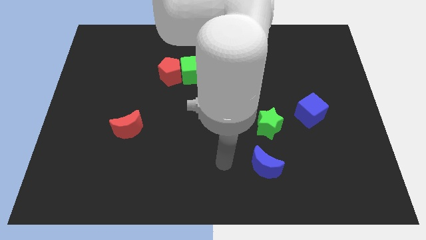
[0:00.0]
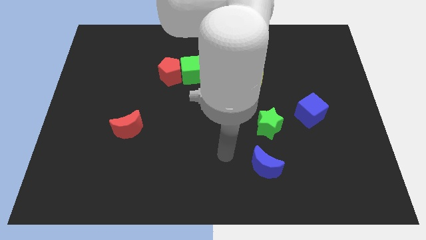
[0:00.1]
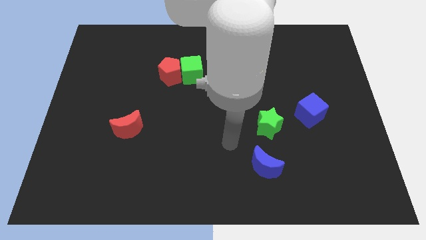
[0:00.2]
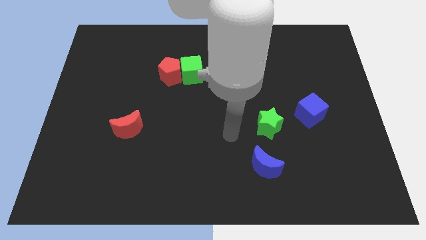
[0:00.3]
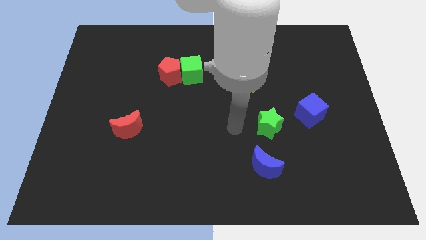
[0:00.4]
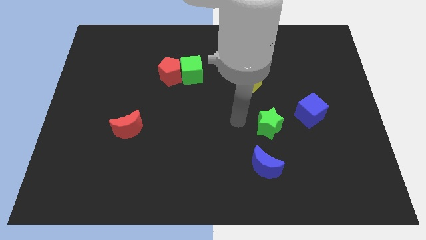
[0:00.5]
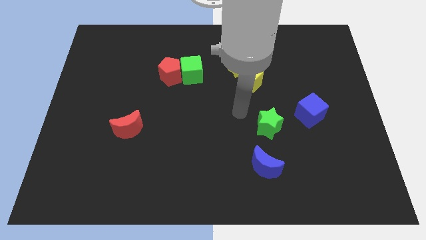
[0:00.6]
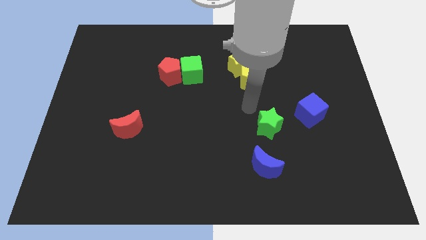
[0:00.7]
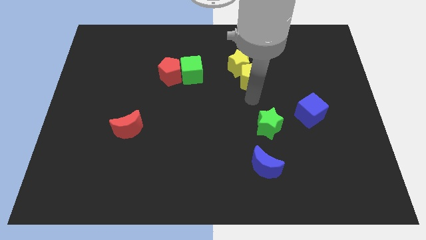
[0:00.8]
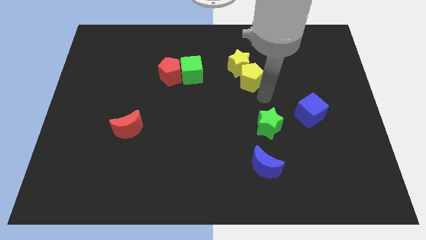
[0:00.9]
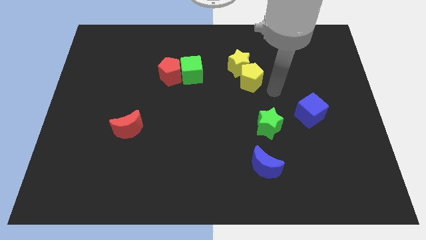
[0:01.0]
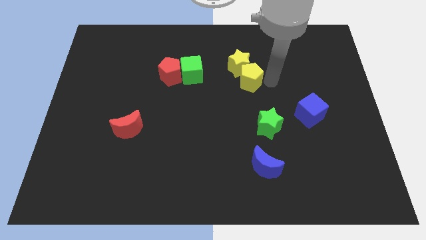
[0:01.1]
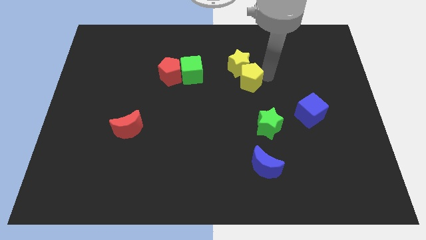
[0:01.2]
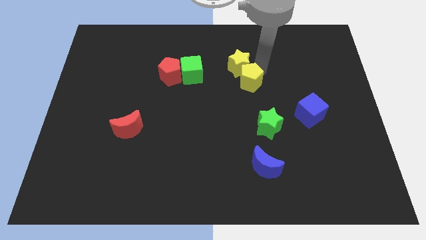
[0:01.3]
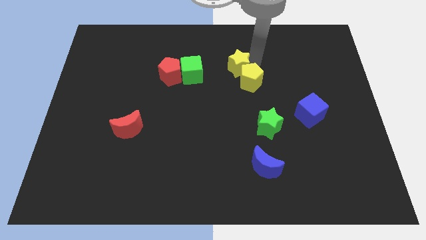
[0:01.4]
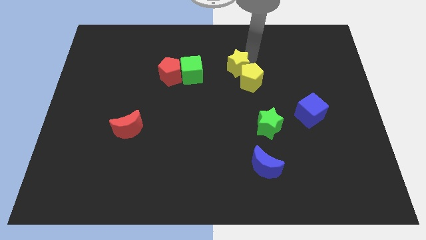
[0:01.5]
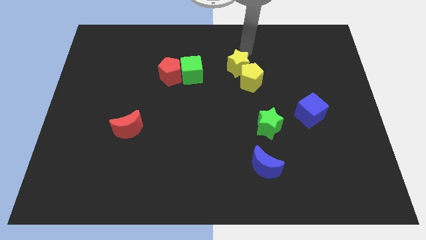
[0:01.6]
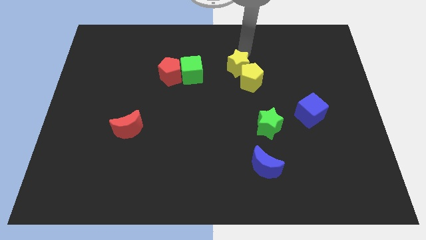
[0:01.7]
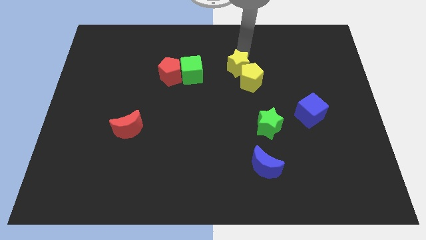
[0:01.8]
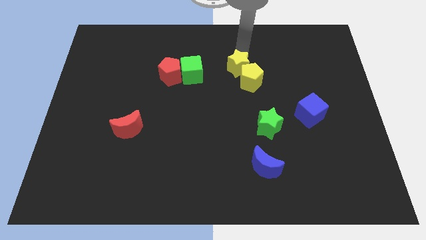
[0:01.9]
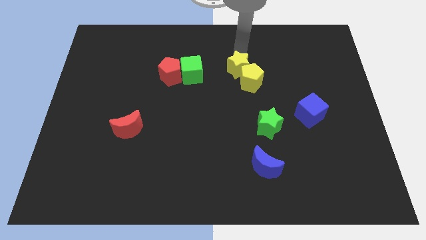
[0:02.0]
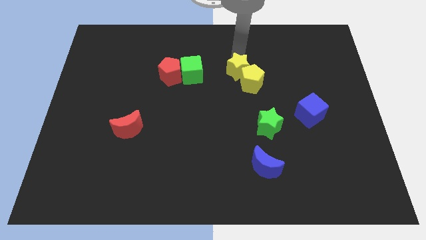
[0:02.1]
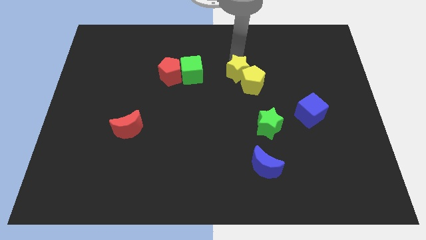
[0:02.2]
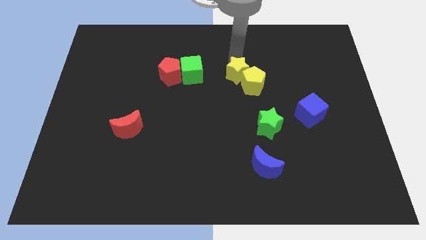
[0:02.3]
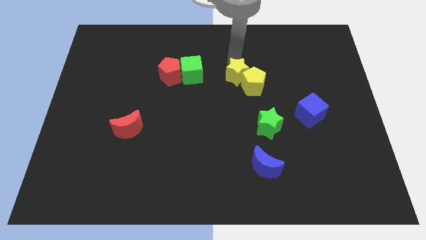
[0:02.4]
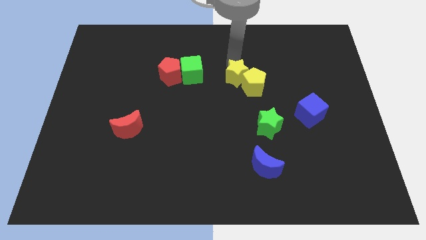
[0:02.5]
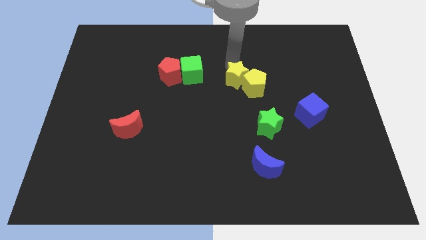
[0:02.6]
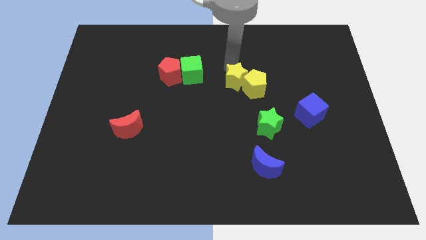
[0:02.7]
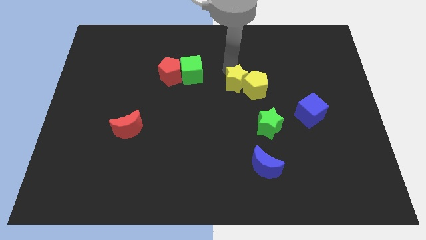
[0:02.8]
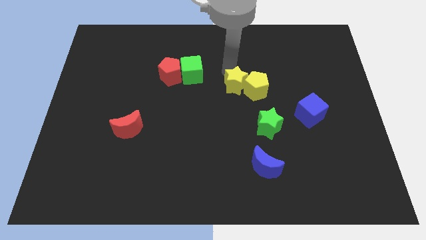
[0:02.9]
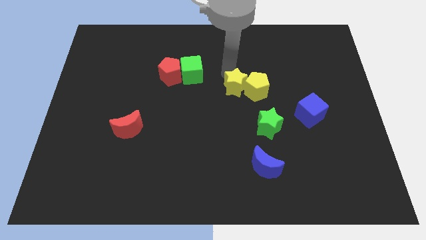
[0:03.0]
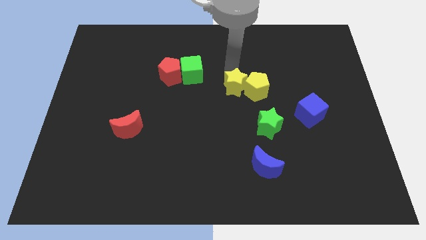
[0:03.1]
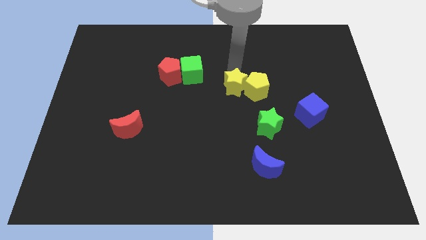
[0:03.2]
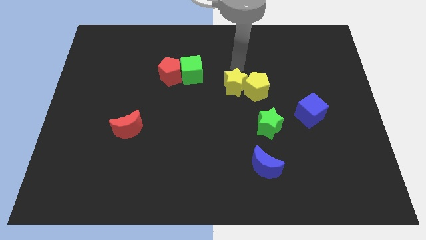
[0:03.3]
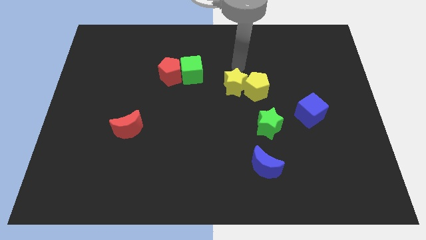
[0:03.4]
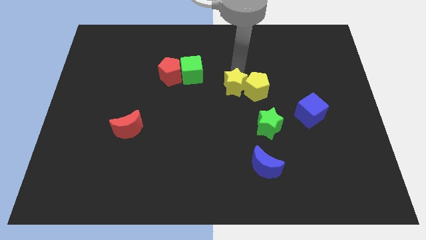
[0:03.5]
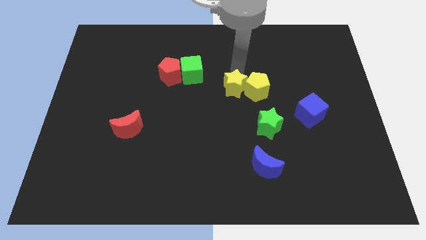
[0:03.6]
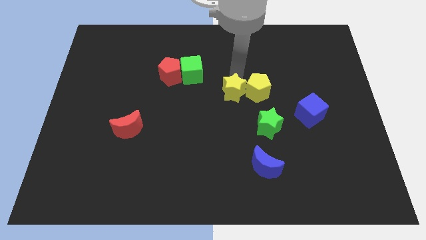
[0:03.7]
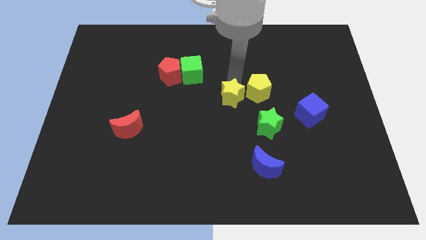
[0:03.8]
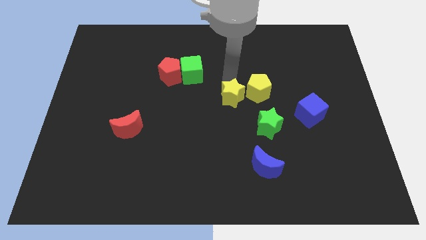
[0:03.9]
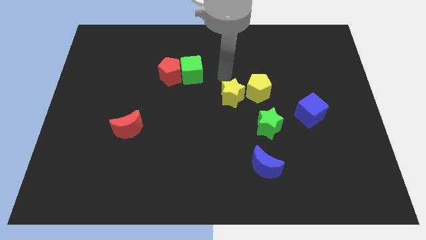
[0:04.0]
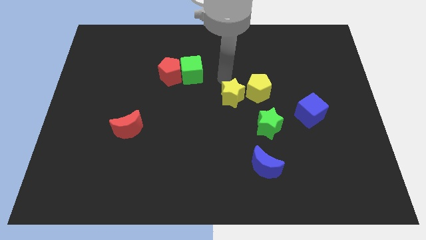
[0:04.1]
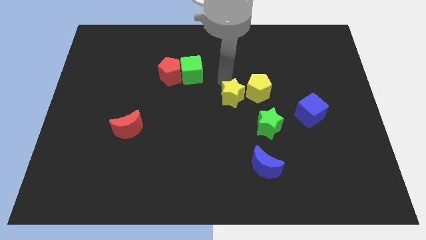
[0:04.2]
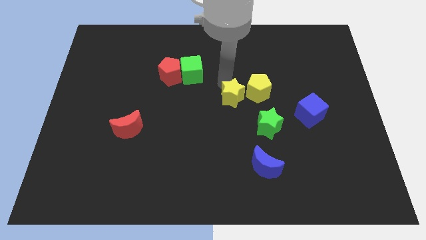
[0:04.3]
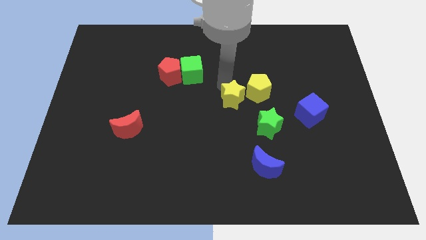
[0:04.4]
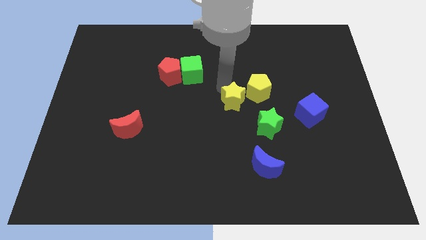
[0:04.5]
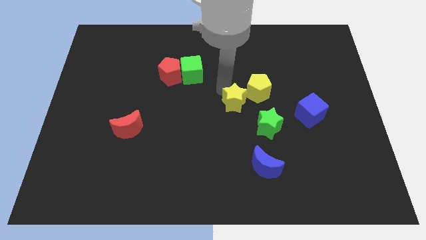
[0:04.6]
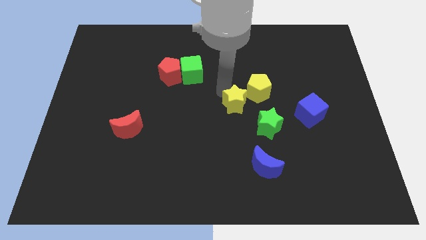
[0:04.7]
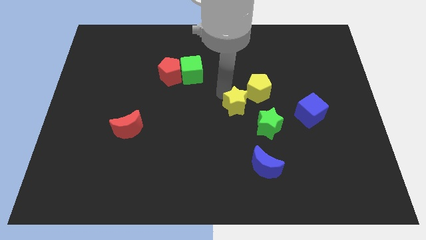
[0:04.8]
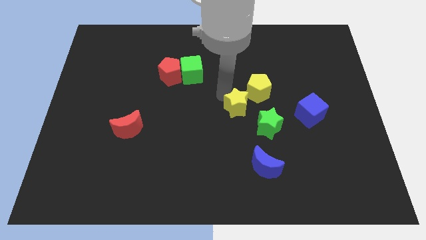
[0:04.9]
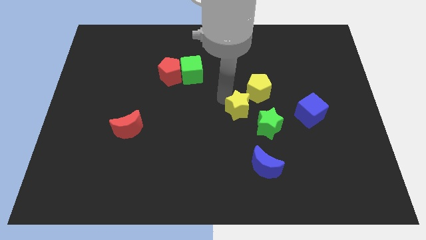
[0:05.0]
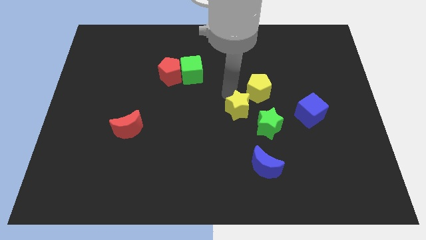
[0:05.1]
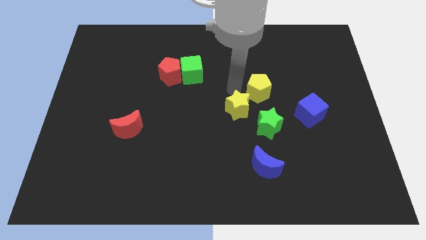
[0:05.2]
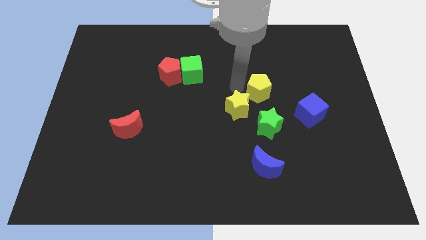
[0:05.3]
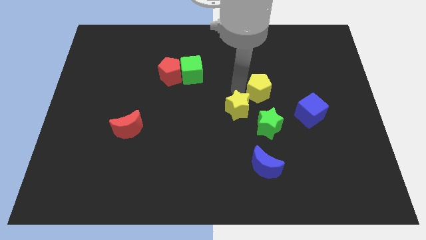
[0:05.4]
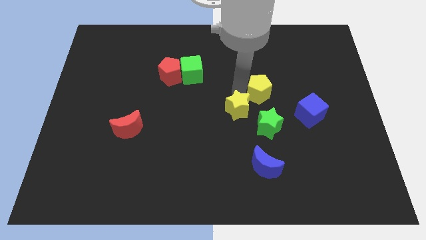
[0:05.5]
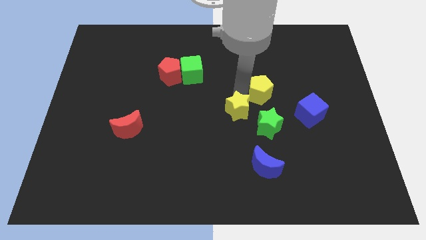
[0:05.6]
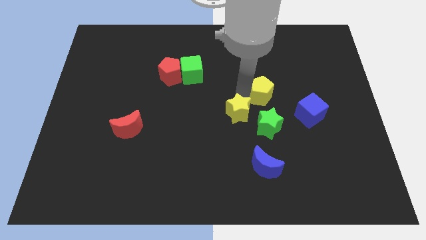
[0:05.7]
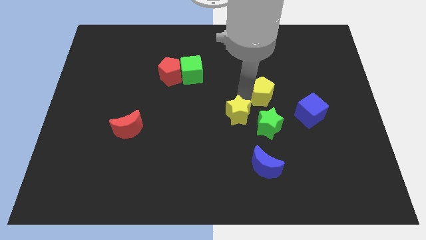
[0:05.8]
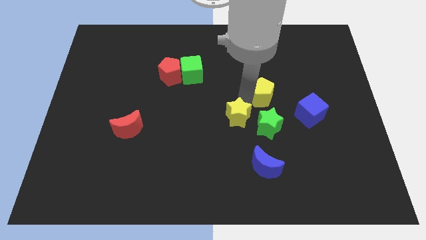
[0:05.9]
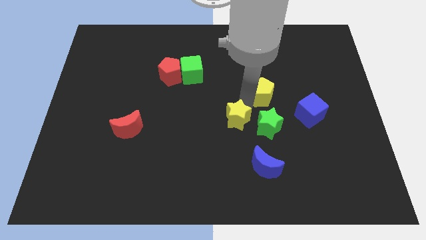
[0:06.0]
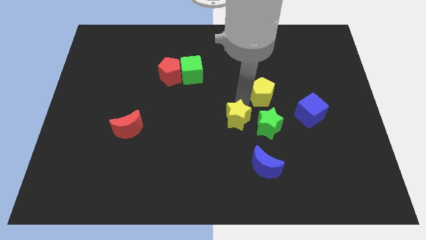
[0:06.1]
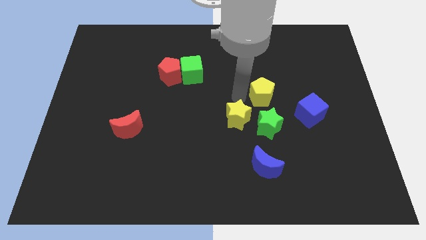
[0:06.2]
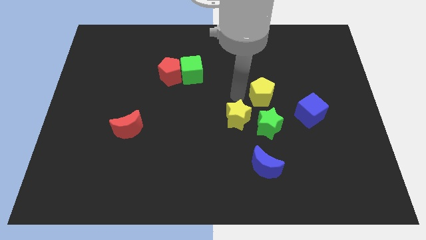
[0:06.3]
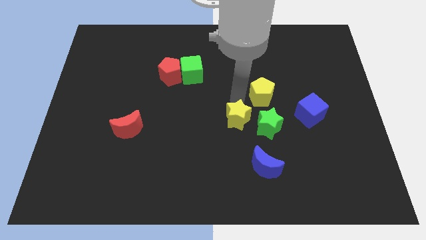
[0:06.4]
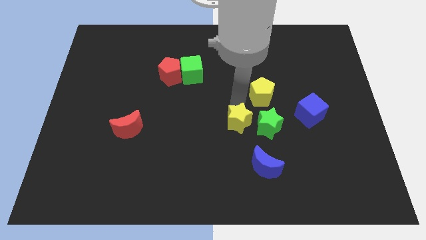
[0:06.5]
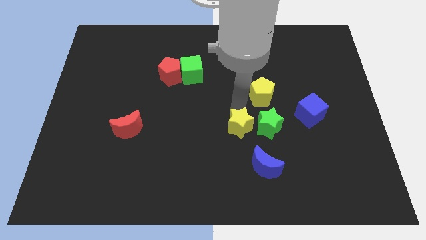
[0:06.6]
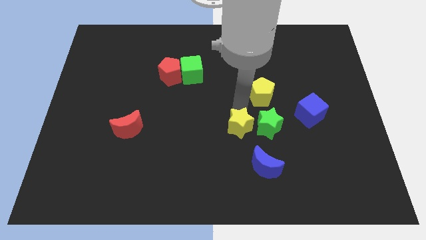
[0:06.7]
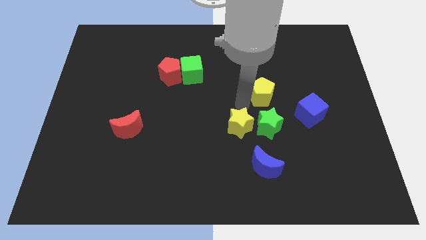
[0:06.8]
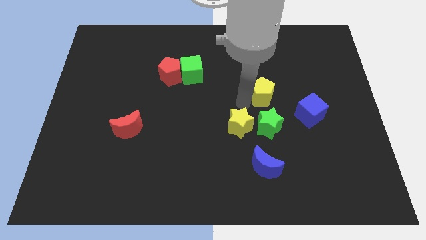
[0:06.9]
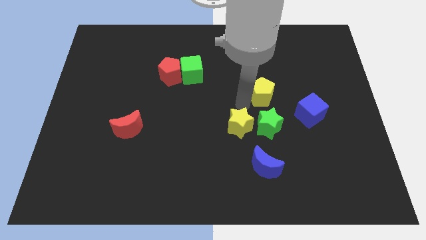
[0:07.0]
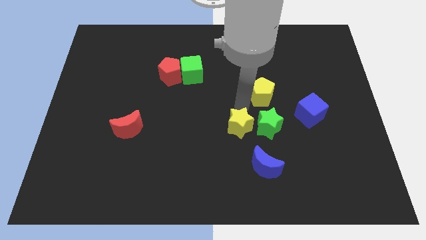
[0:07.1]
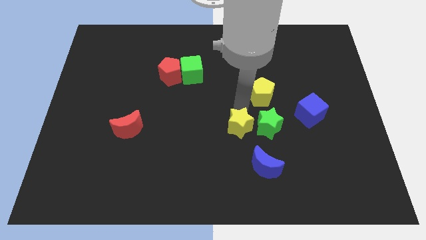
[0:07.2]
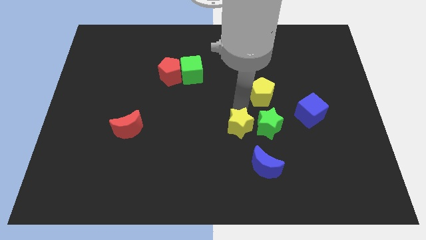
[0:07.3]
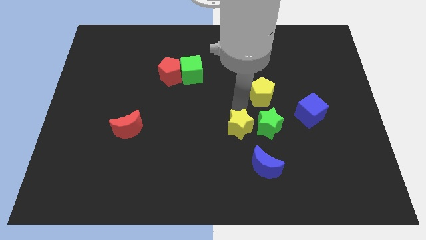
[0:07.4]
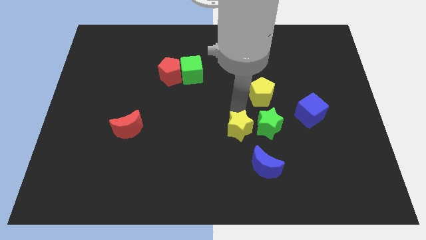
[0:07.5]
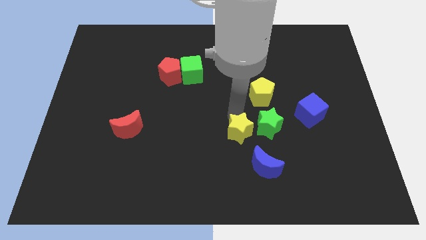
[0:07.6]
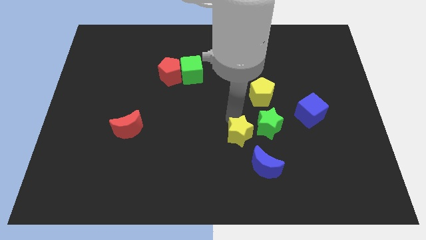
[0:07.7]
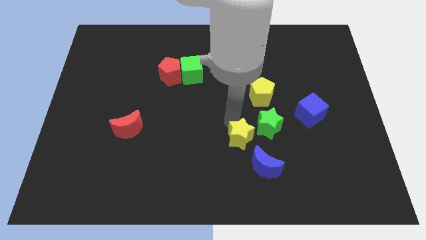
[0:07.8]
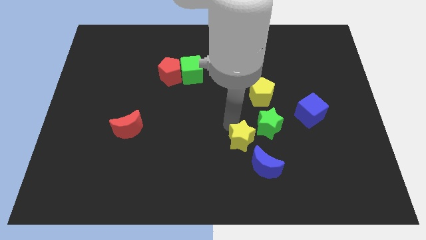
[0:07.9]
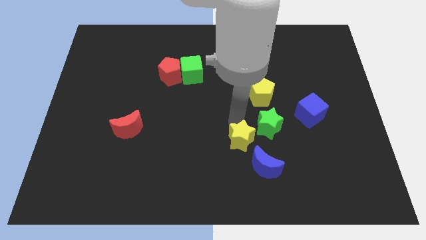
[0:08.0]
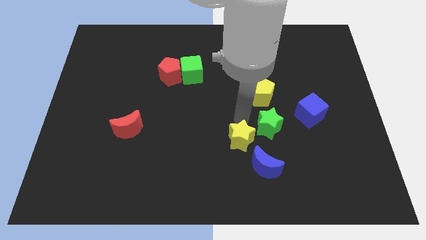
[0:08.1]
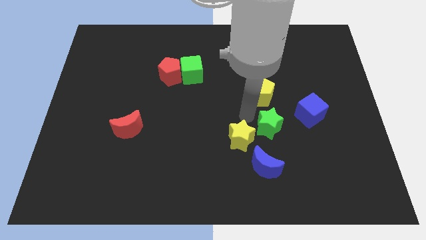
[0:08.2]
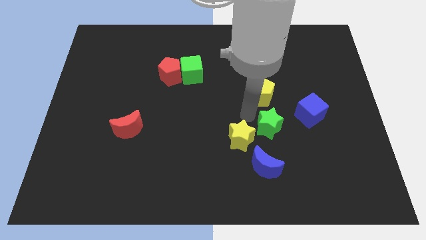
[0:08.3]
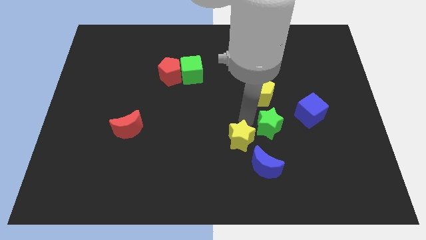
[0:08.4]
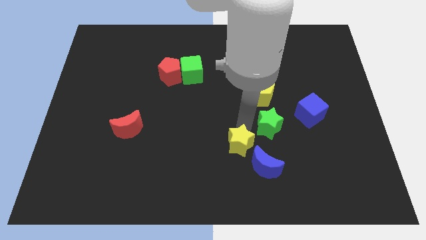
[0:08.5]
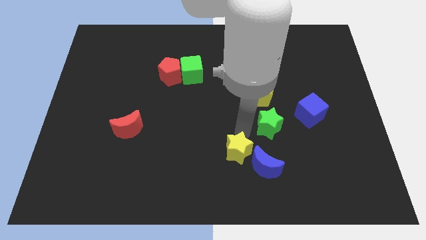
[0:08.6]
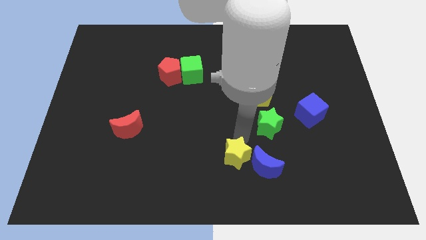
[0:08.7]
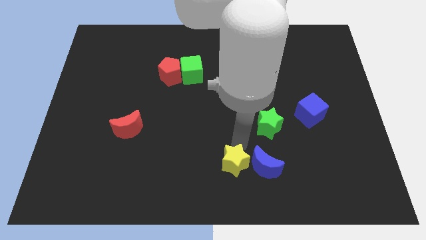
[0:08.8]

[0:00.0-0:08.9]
move the yellow star to the bottom
